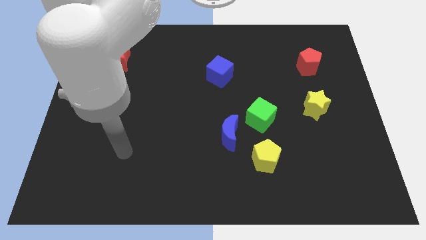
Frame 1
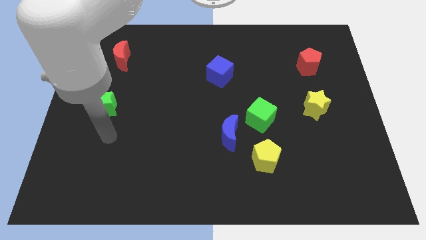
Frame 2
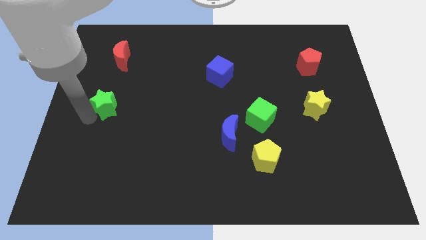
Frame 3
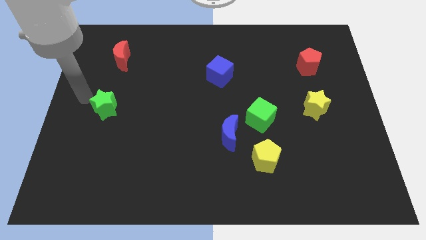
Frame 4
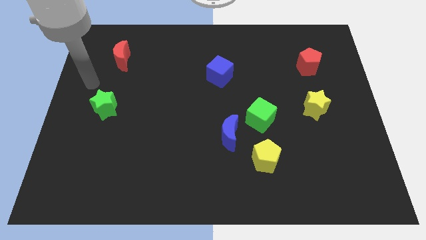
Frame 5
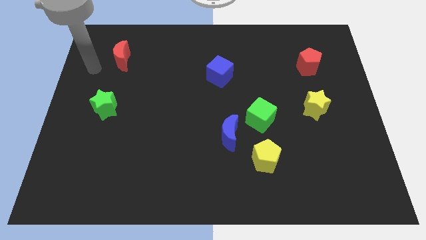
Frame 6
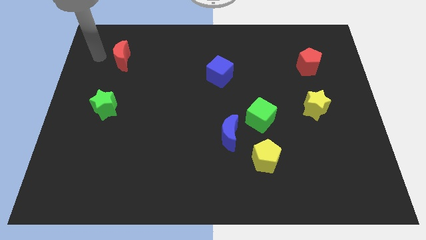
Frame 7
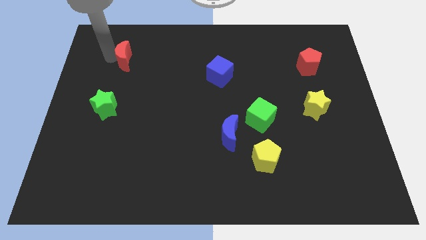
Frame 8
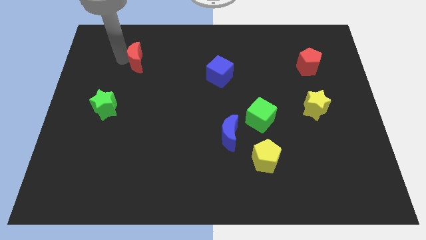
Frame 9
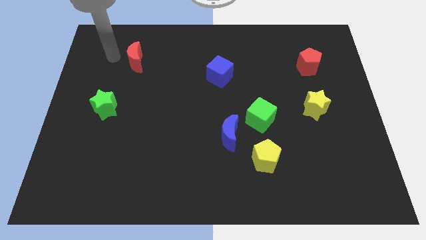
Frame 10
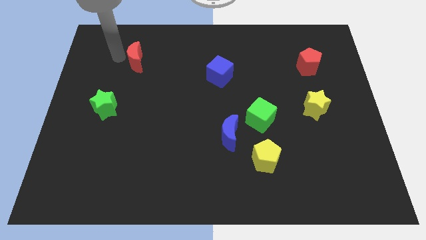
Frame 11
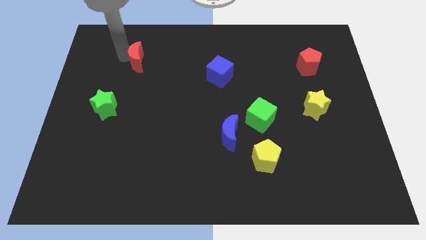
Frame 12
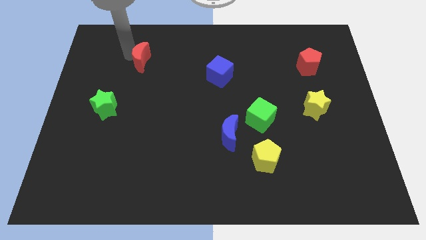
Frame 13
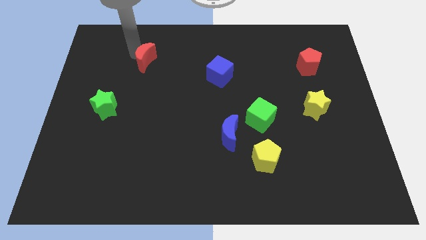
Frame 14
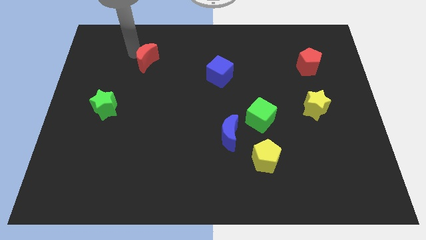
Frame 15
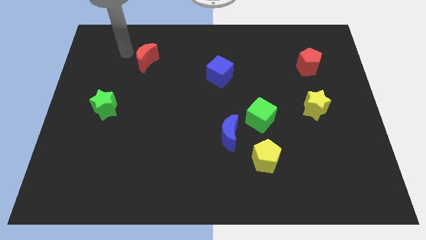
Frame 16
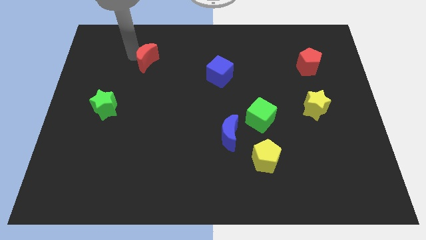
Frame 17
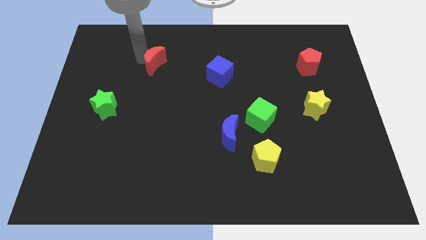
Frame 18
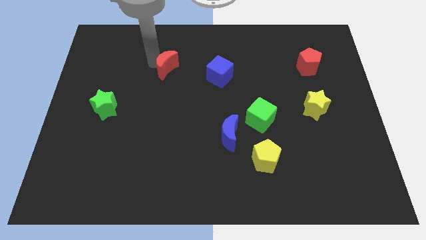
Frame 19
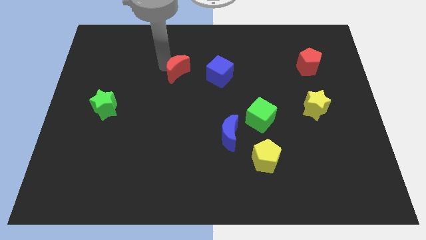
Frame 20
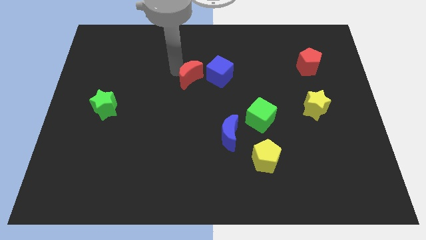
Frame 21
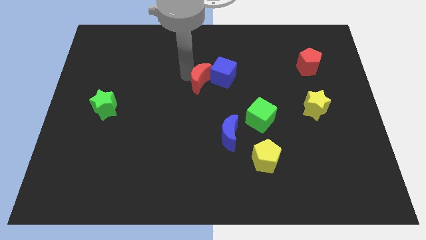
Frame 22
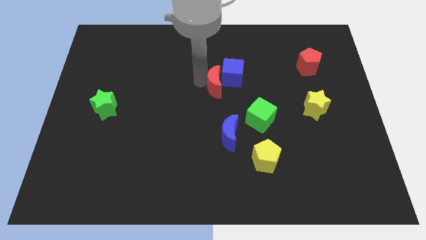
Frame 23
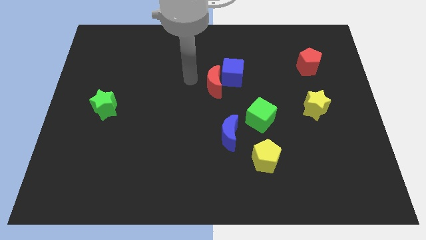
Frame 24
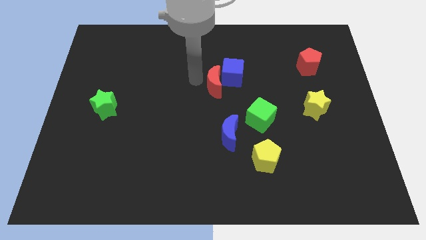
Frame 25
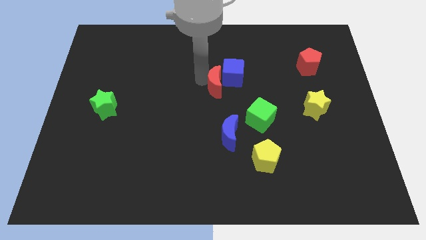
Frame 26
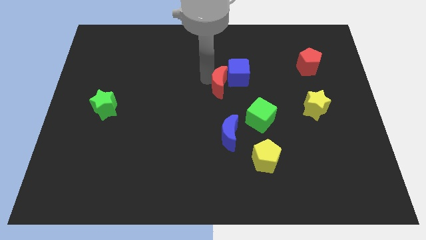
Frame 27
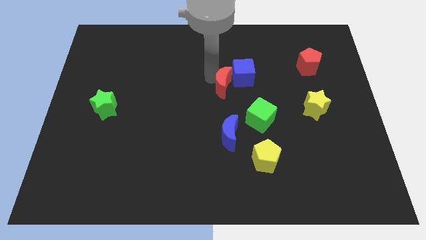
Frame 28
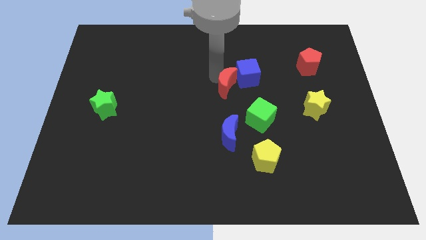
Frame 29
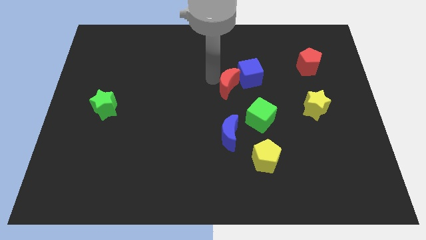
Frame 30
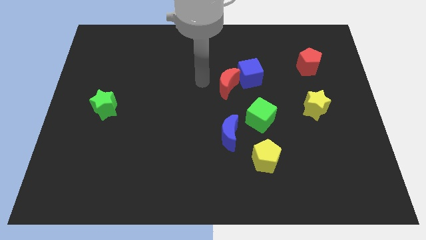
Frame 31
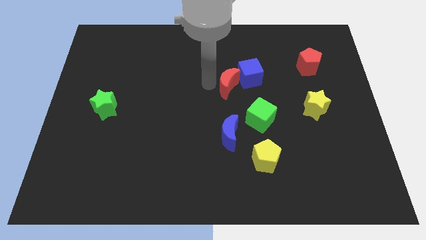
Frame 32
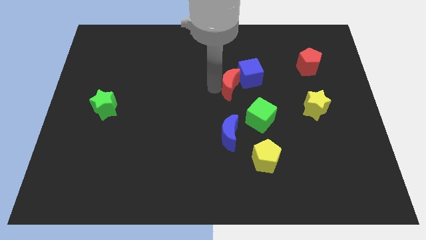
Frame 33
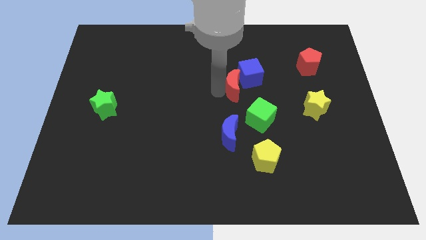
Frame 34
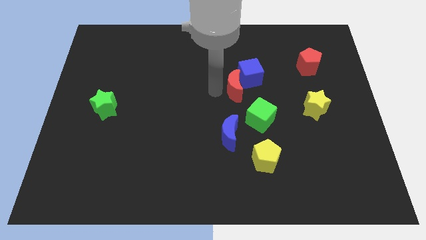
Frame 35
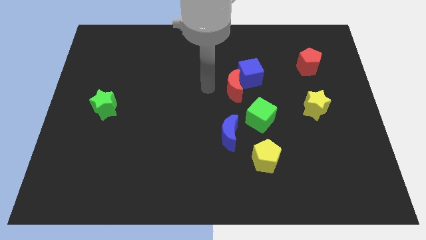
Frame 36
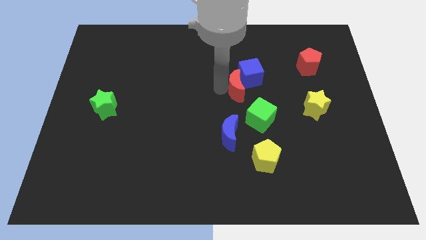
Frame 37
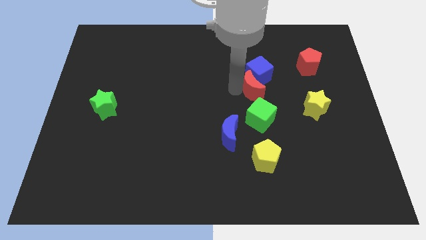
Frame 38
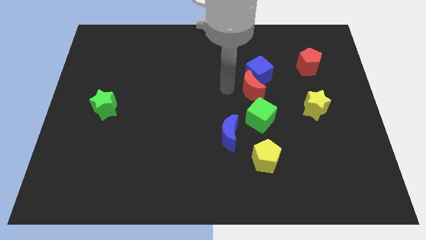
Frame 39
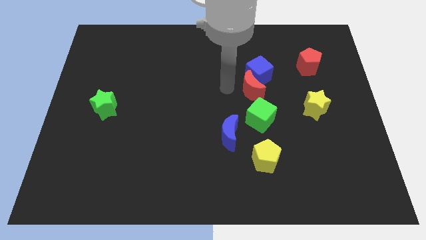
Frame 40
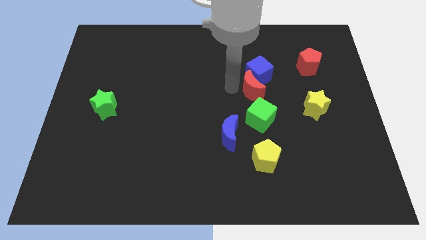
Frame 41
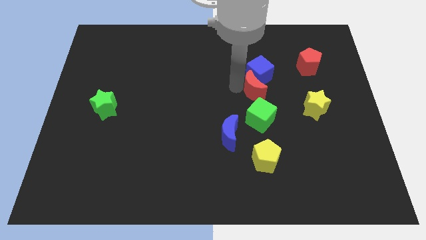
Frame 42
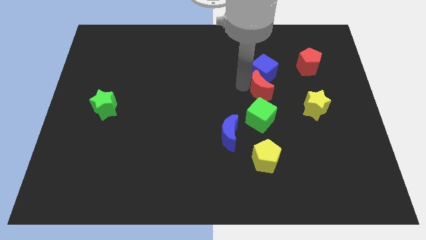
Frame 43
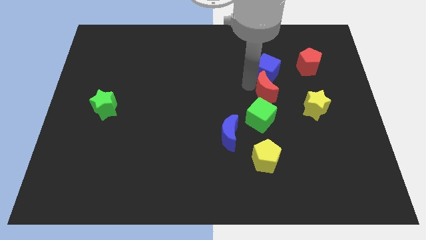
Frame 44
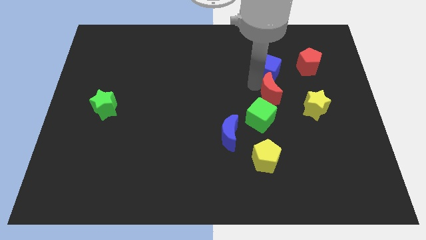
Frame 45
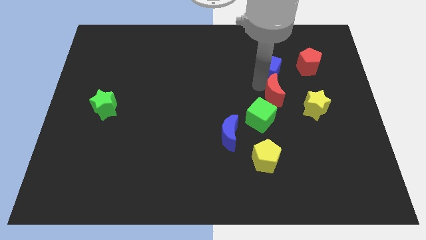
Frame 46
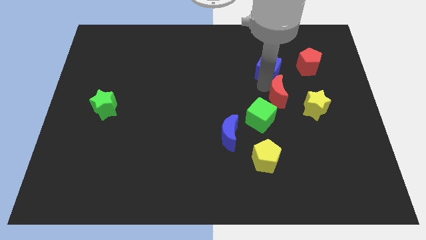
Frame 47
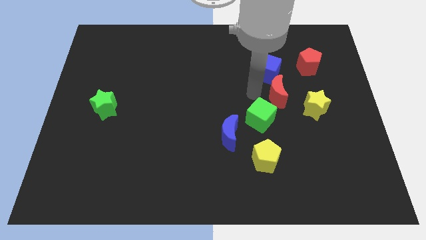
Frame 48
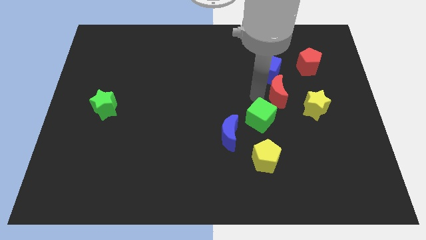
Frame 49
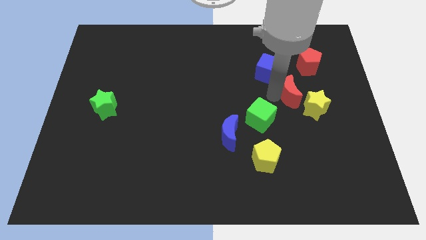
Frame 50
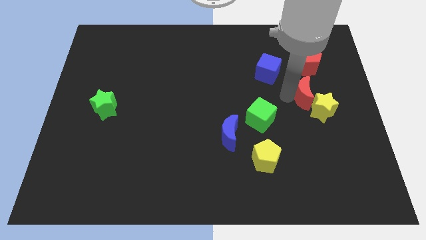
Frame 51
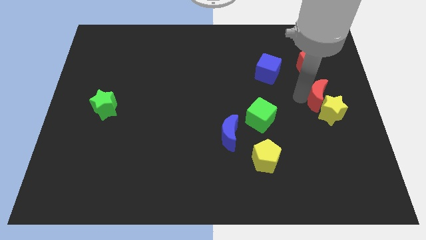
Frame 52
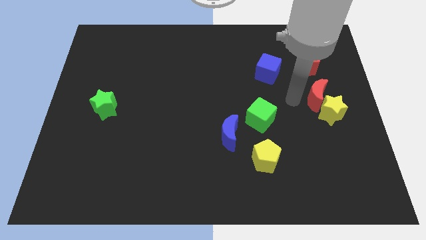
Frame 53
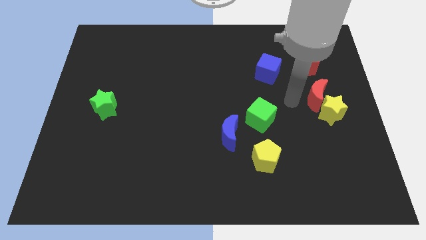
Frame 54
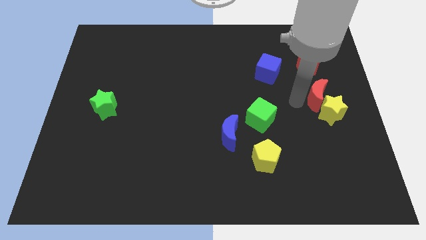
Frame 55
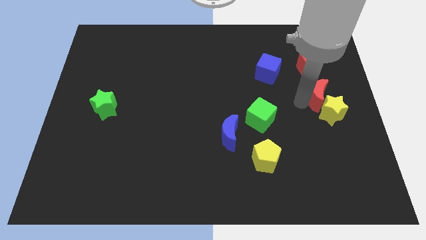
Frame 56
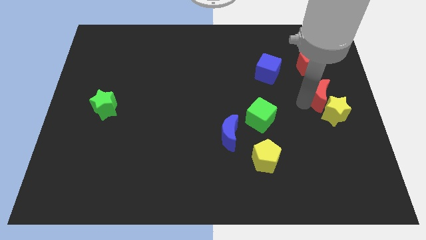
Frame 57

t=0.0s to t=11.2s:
move the red moon to the right side of the board

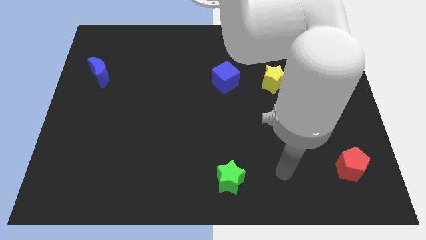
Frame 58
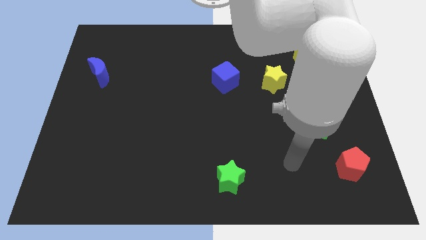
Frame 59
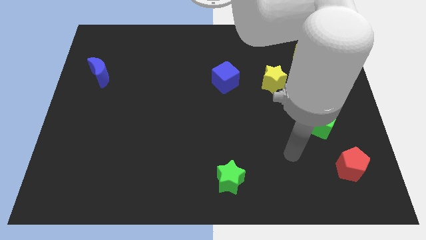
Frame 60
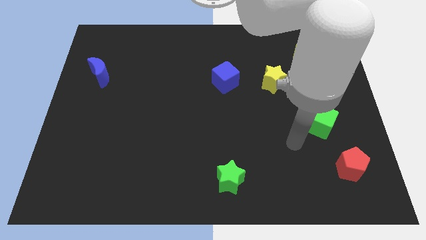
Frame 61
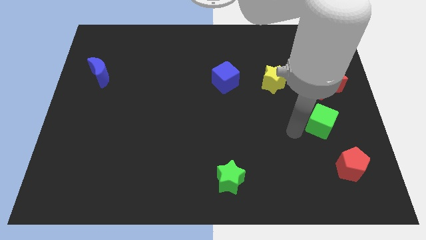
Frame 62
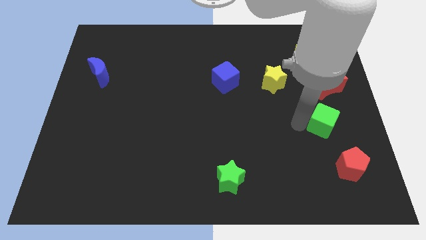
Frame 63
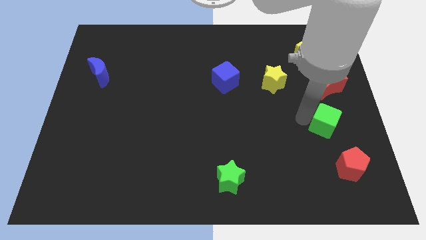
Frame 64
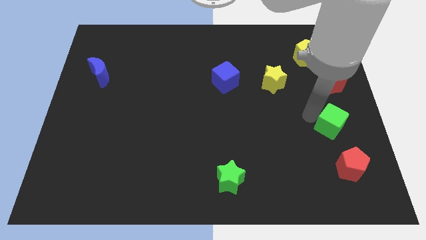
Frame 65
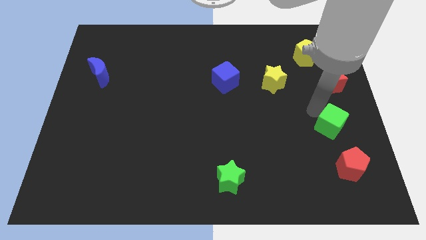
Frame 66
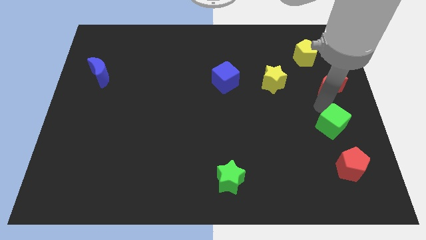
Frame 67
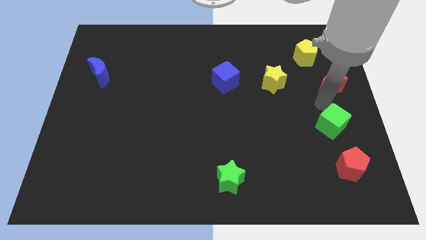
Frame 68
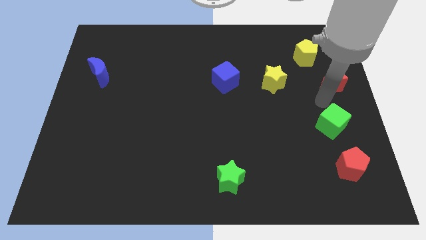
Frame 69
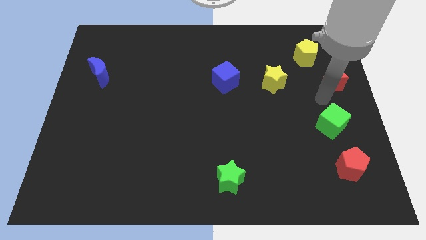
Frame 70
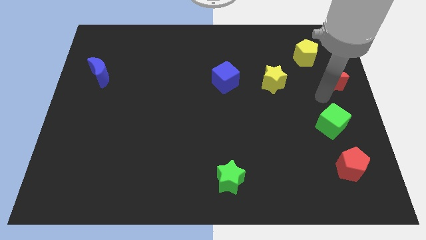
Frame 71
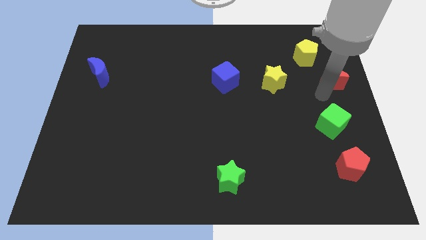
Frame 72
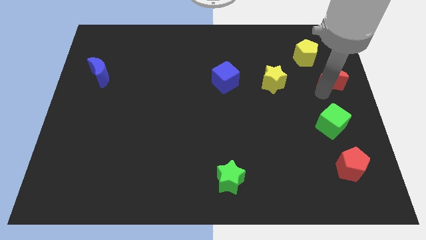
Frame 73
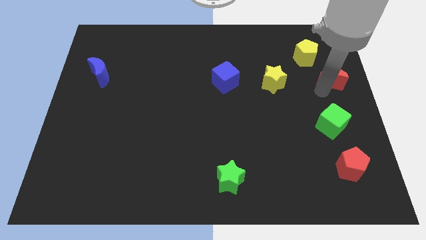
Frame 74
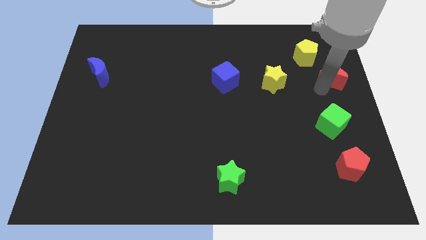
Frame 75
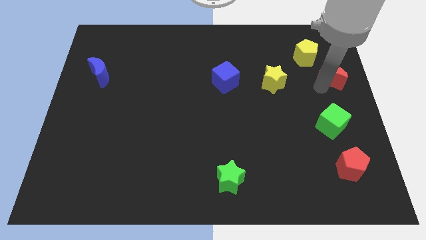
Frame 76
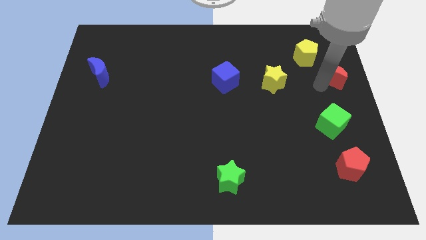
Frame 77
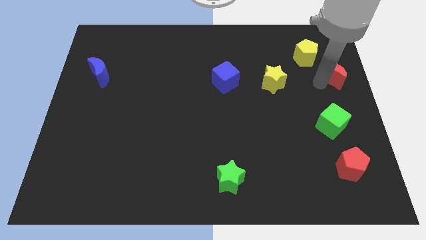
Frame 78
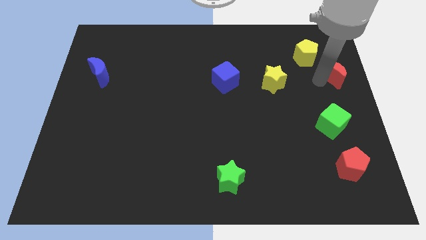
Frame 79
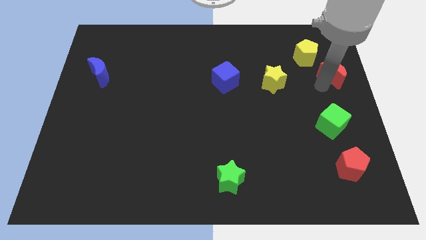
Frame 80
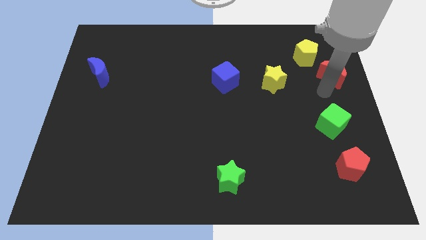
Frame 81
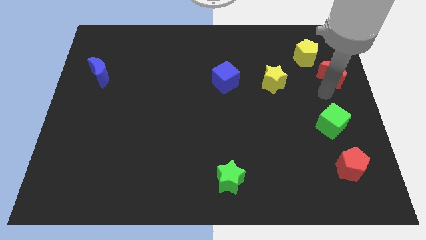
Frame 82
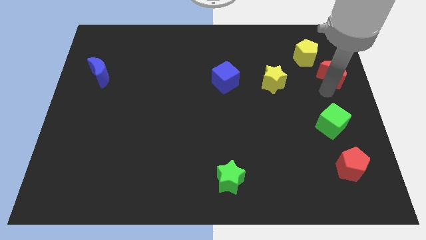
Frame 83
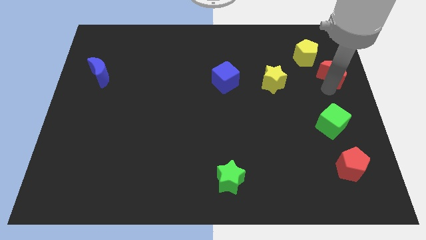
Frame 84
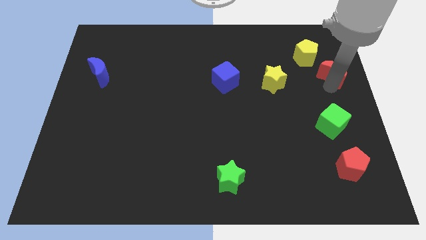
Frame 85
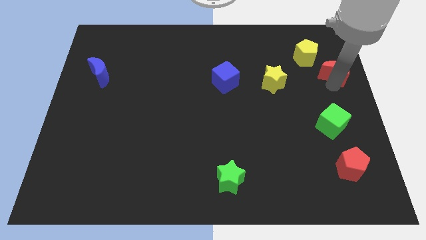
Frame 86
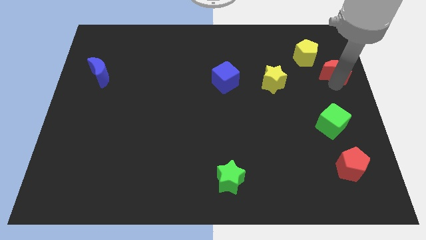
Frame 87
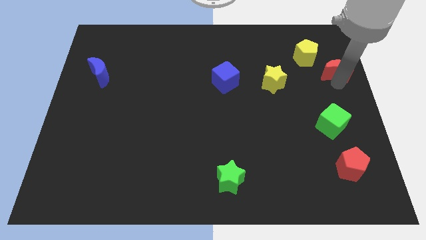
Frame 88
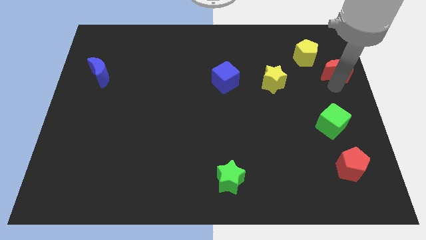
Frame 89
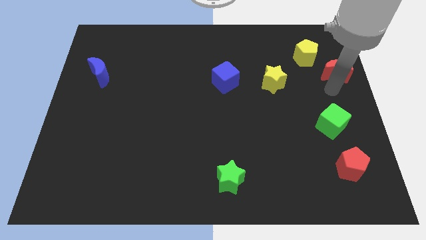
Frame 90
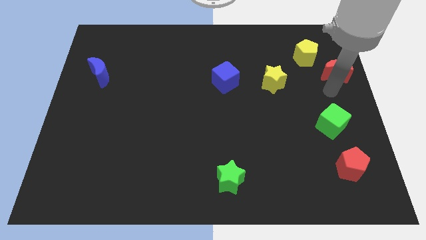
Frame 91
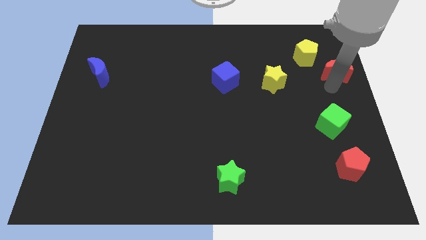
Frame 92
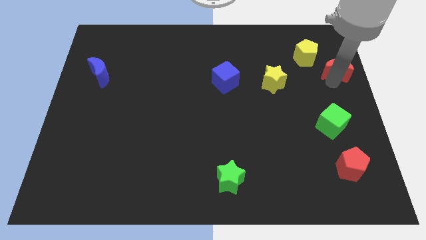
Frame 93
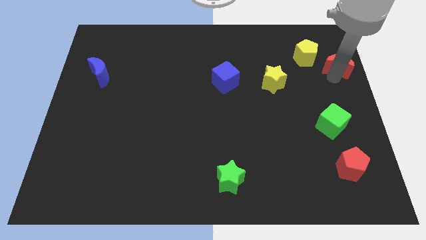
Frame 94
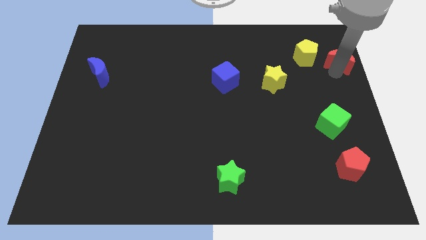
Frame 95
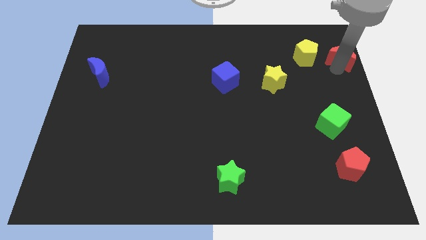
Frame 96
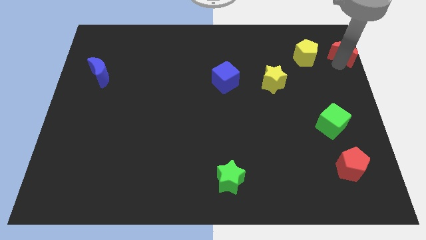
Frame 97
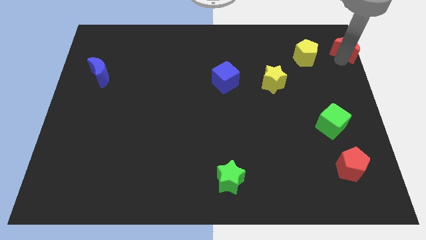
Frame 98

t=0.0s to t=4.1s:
slide the red moon to the top right corner
